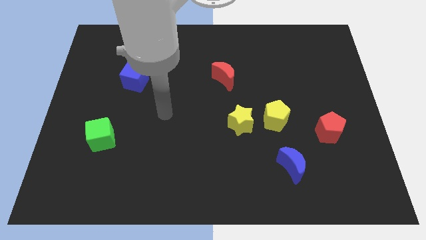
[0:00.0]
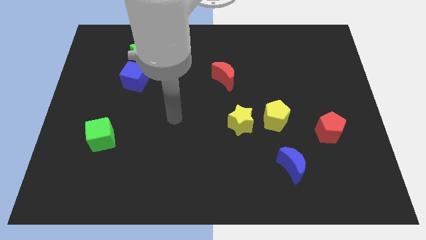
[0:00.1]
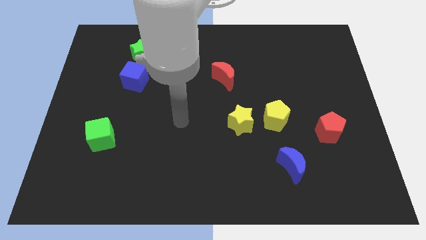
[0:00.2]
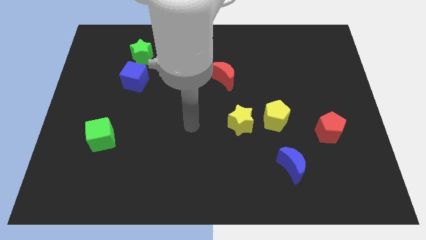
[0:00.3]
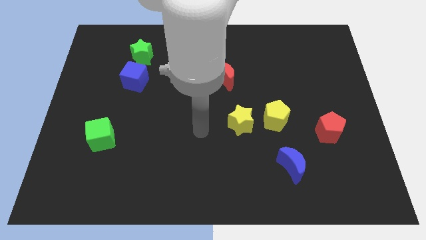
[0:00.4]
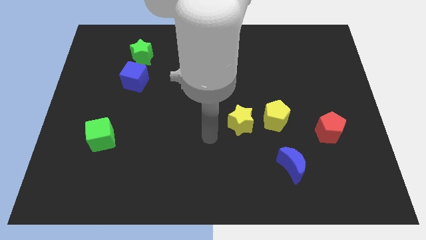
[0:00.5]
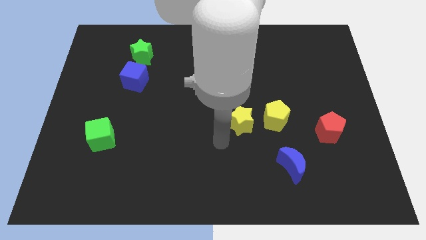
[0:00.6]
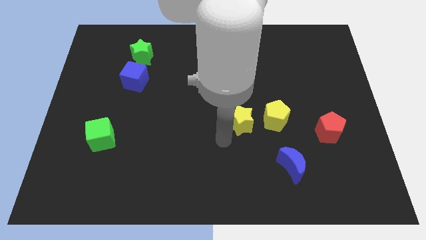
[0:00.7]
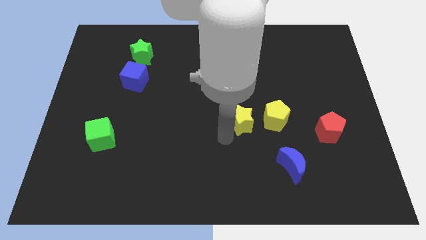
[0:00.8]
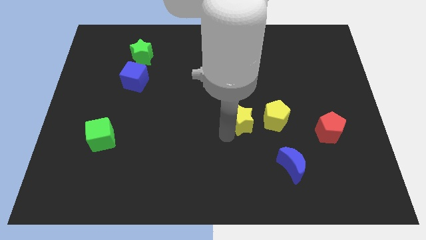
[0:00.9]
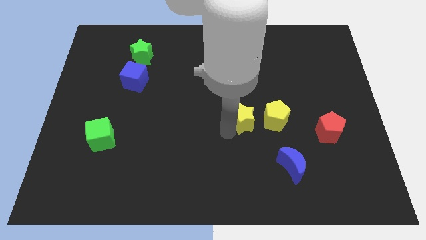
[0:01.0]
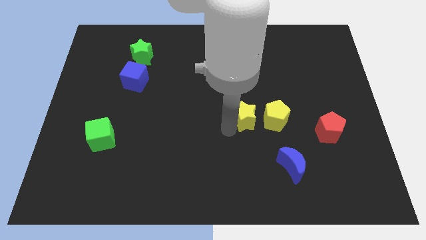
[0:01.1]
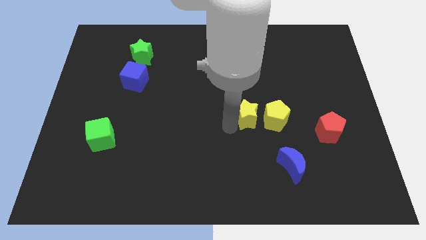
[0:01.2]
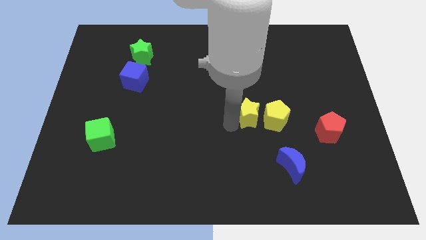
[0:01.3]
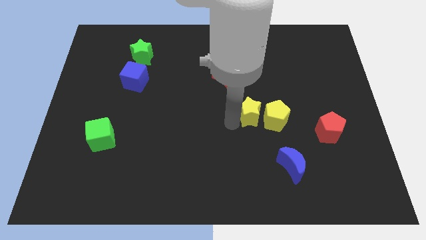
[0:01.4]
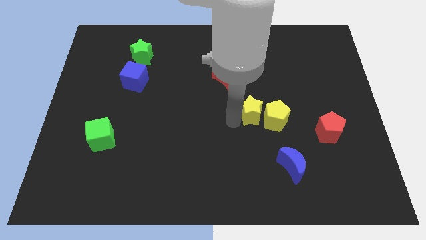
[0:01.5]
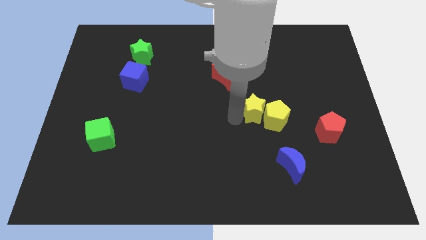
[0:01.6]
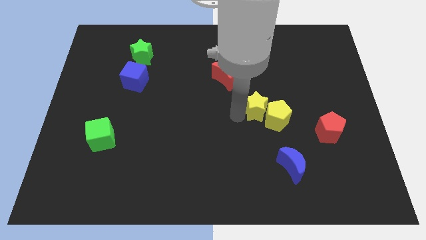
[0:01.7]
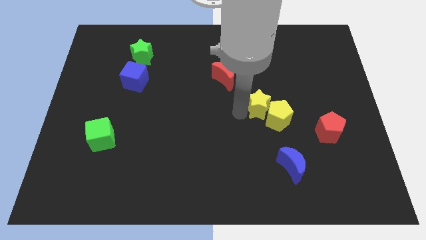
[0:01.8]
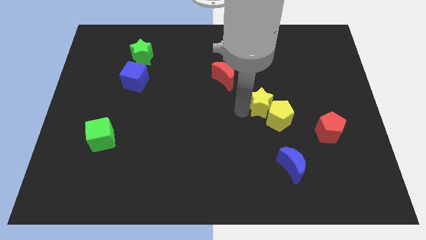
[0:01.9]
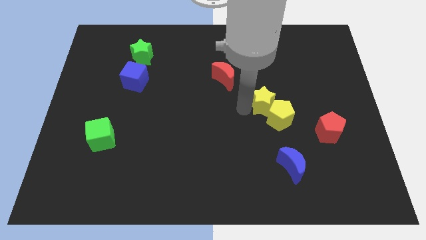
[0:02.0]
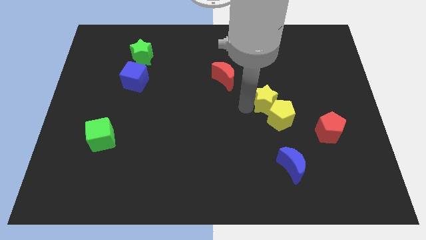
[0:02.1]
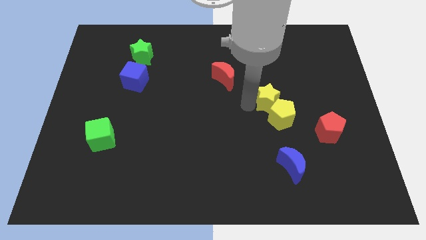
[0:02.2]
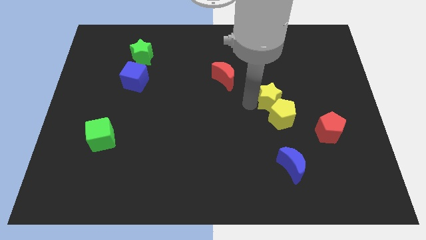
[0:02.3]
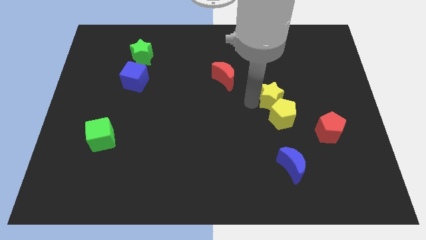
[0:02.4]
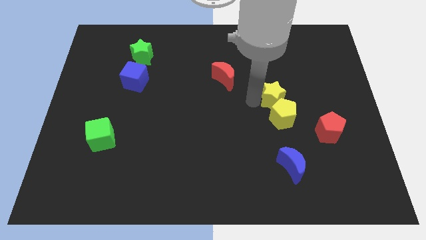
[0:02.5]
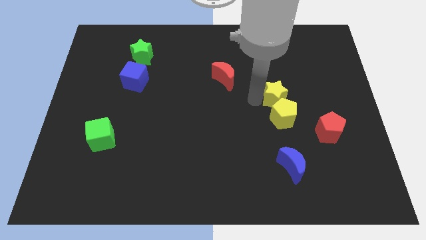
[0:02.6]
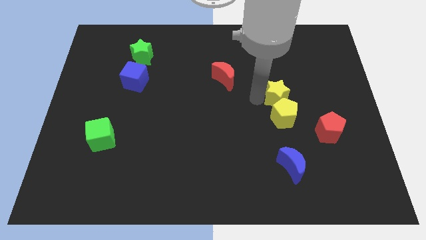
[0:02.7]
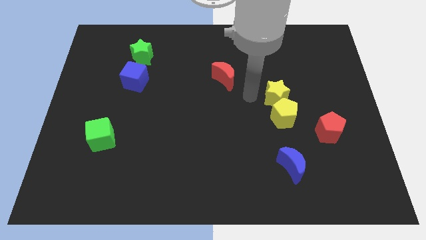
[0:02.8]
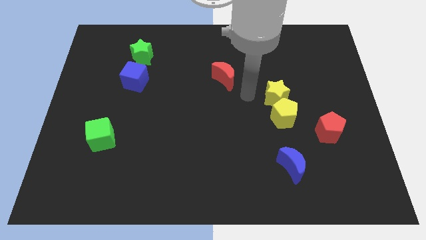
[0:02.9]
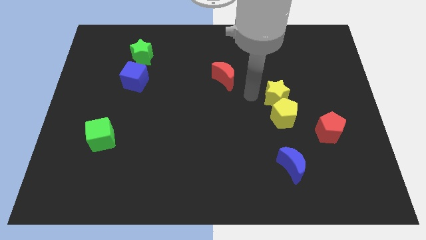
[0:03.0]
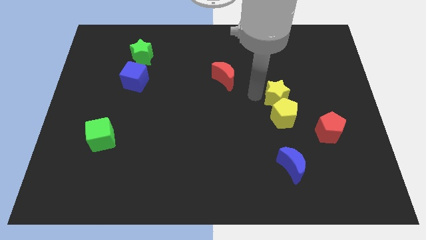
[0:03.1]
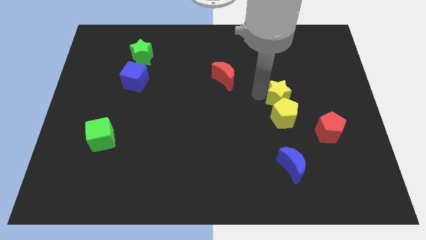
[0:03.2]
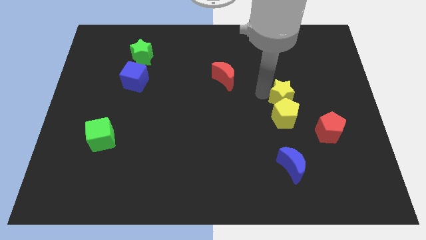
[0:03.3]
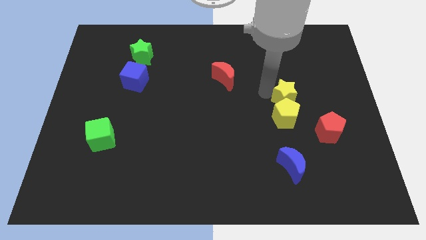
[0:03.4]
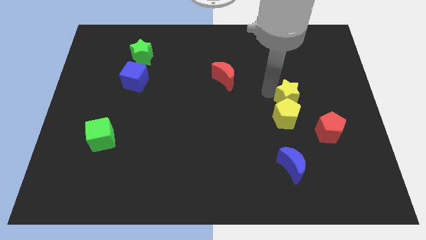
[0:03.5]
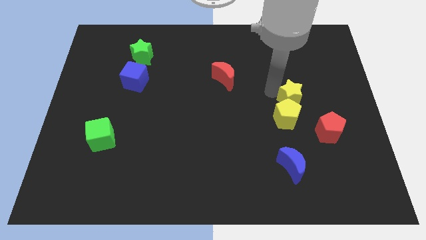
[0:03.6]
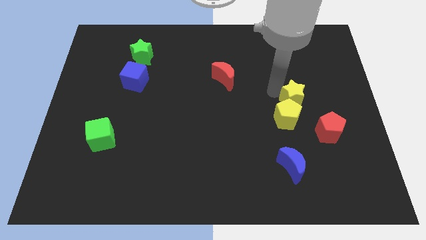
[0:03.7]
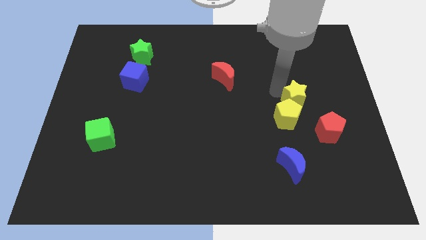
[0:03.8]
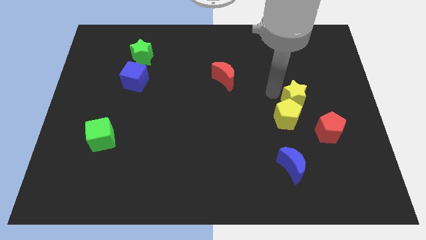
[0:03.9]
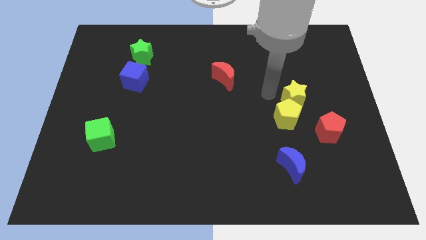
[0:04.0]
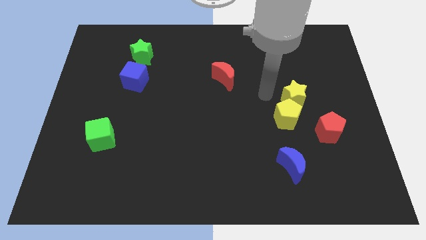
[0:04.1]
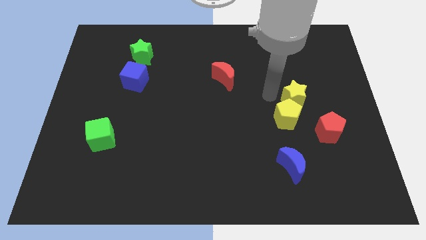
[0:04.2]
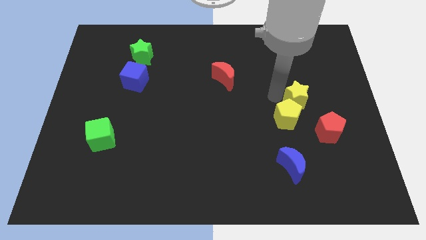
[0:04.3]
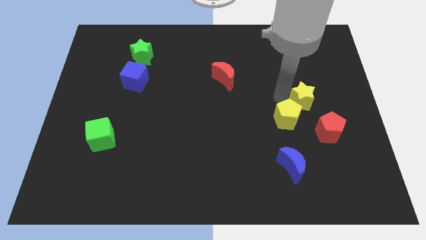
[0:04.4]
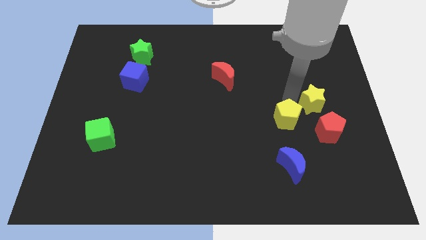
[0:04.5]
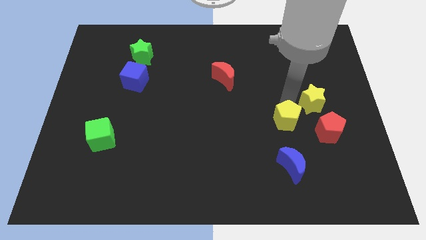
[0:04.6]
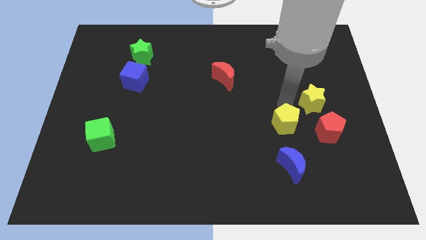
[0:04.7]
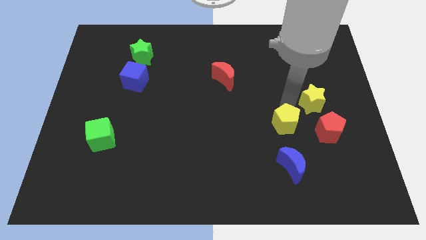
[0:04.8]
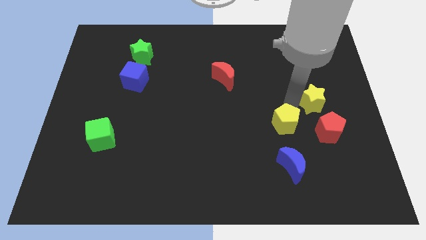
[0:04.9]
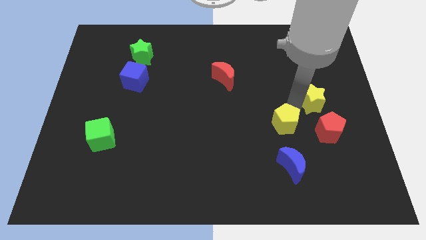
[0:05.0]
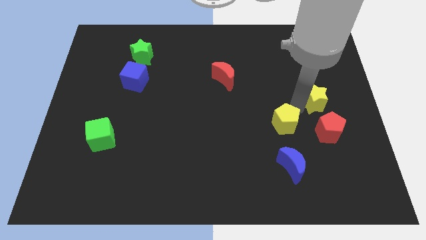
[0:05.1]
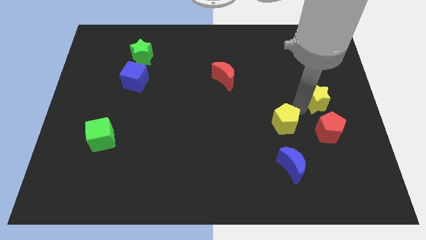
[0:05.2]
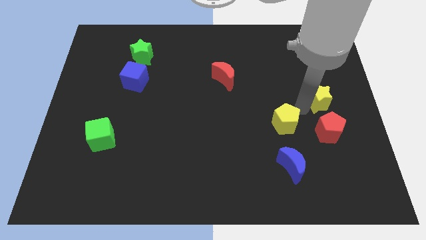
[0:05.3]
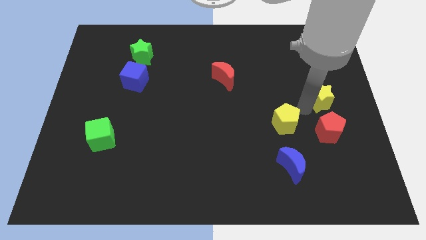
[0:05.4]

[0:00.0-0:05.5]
push the yellow star to the right side of the board
